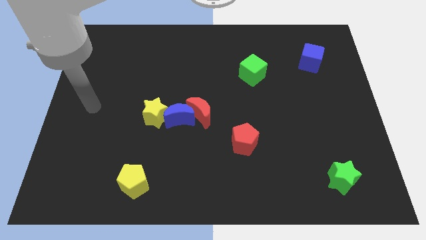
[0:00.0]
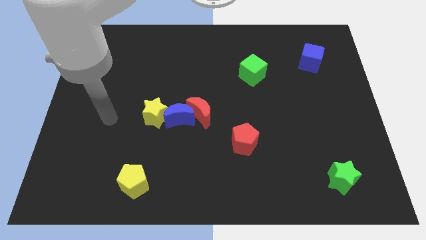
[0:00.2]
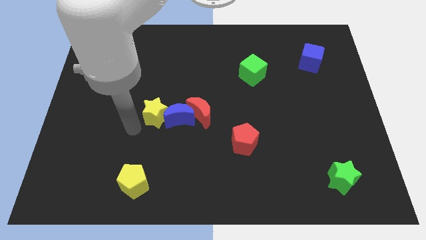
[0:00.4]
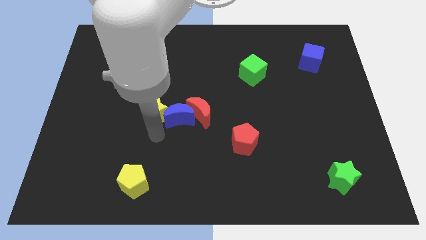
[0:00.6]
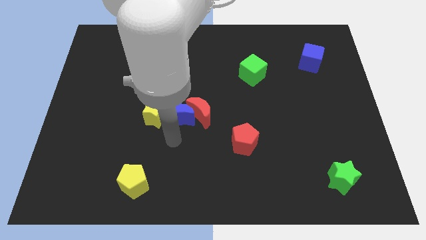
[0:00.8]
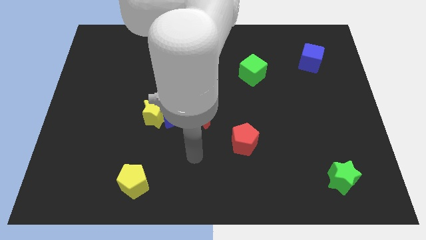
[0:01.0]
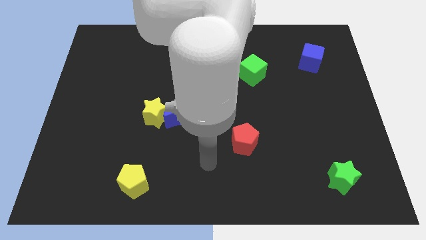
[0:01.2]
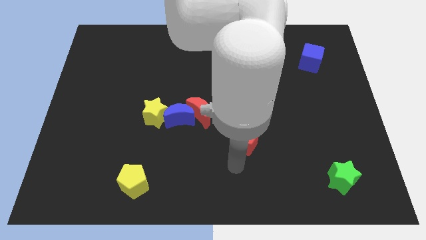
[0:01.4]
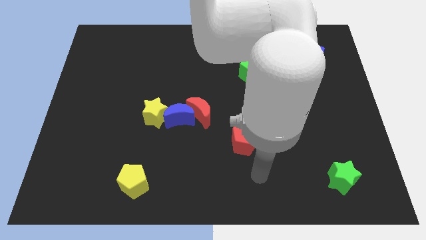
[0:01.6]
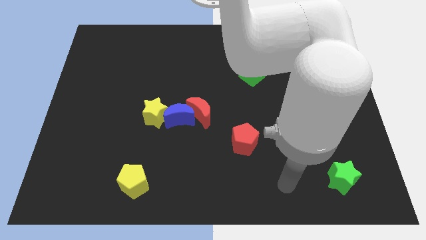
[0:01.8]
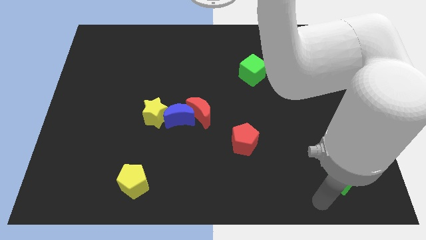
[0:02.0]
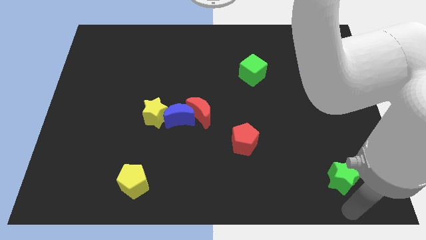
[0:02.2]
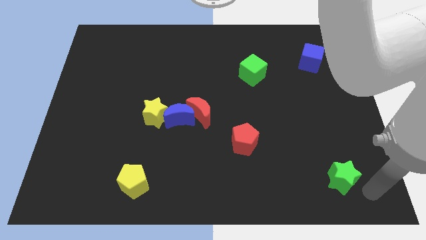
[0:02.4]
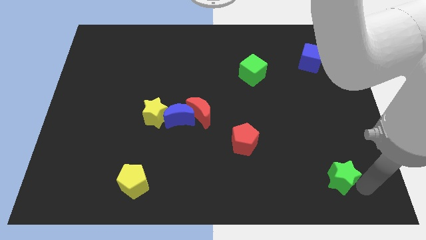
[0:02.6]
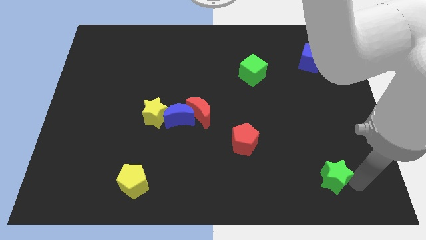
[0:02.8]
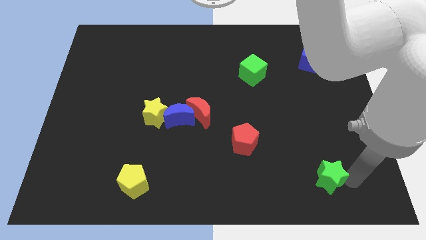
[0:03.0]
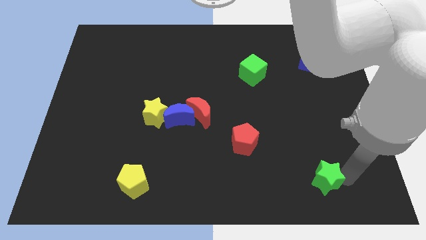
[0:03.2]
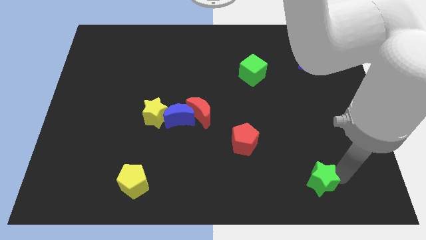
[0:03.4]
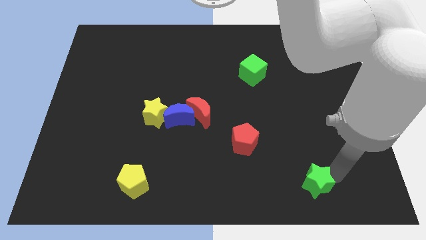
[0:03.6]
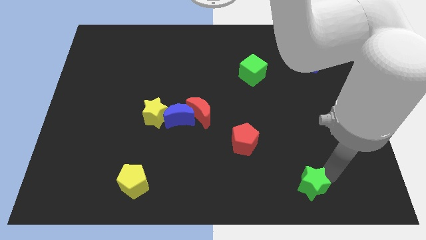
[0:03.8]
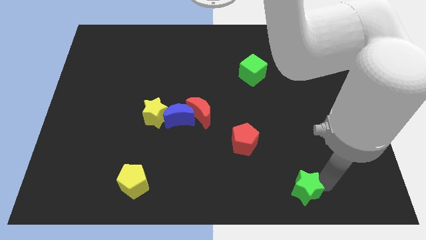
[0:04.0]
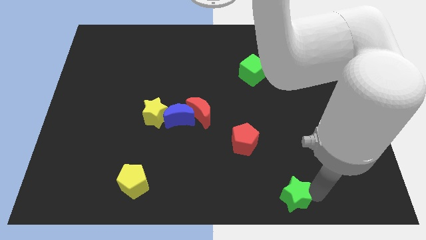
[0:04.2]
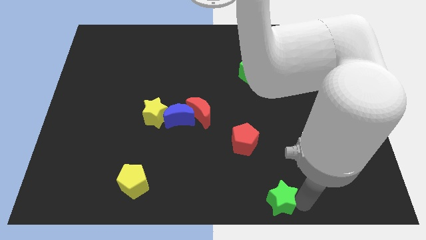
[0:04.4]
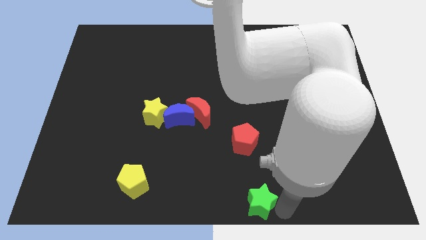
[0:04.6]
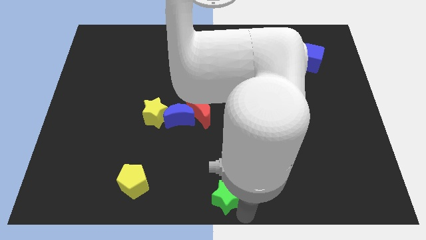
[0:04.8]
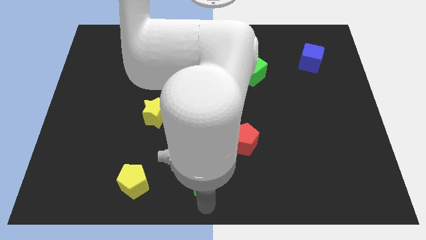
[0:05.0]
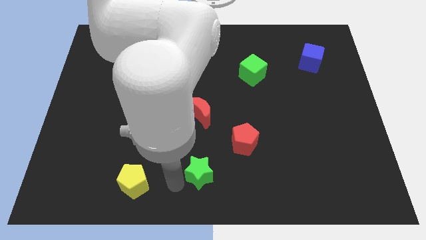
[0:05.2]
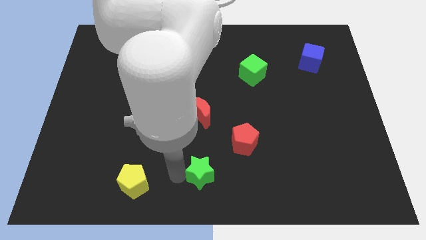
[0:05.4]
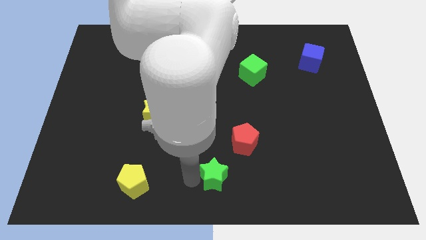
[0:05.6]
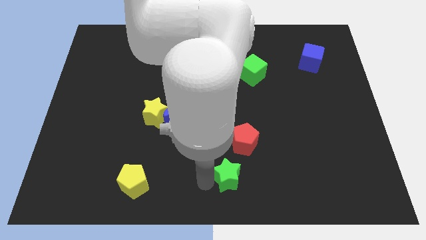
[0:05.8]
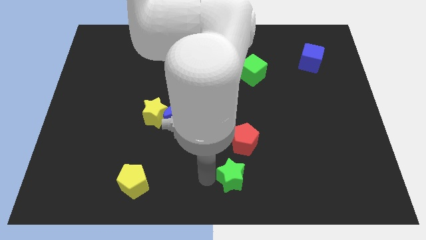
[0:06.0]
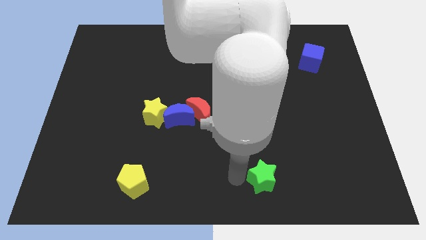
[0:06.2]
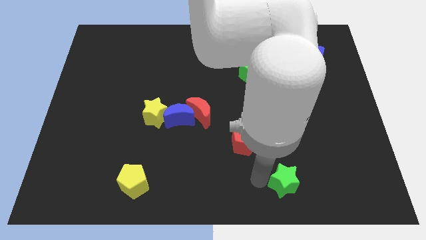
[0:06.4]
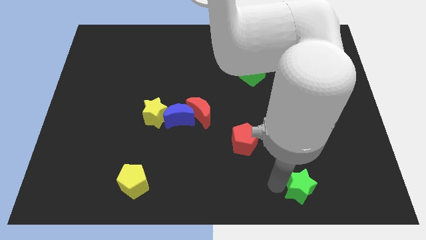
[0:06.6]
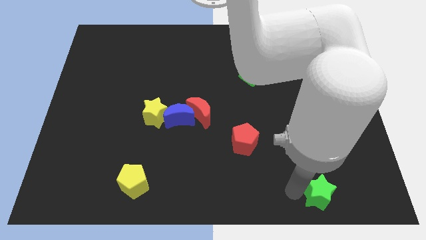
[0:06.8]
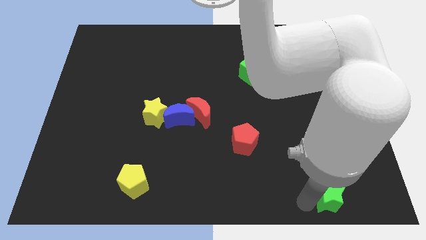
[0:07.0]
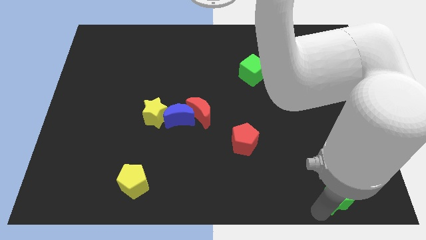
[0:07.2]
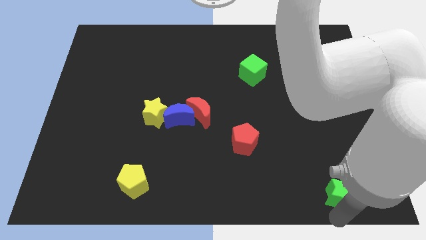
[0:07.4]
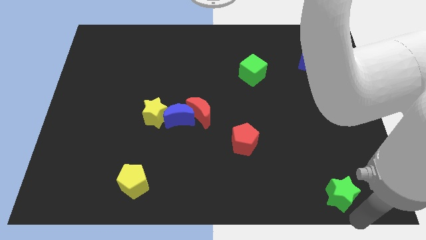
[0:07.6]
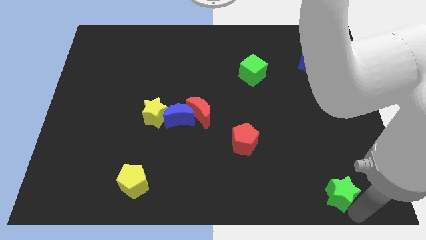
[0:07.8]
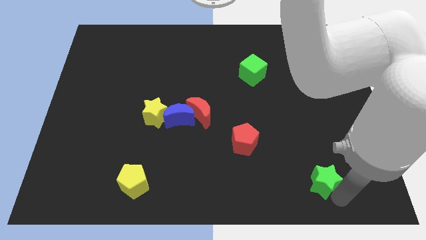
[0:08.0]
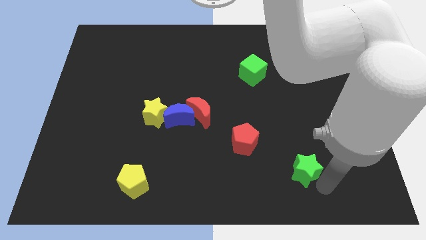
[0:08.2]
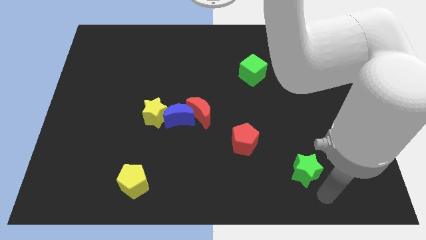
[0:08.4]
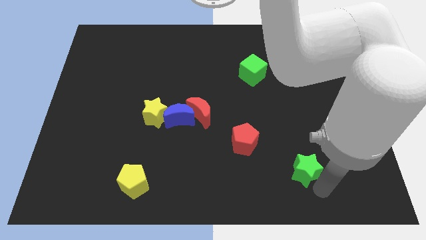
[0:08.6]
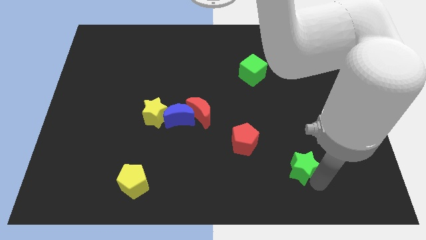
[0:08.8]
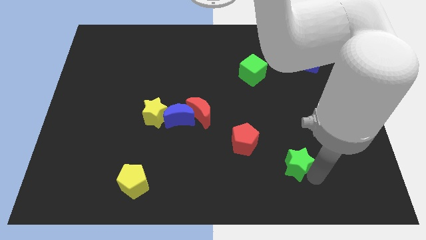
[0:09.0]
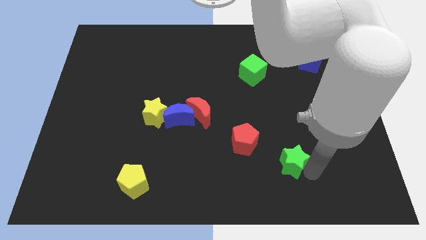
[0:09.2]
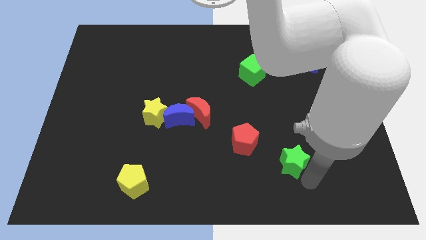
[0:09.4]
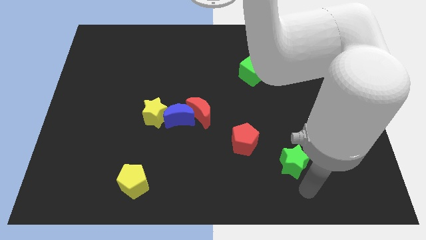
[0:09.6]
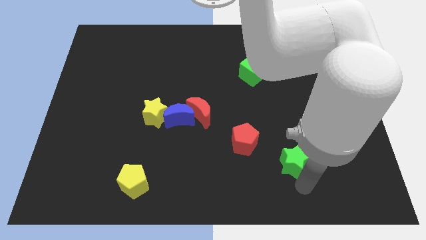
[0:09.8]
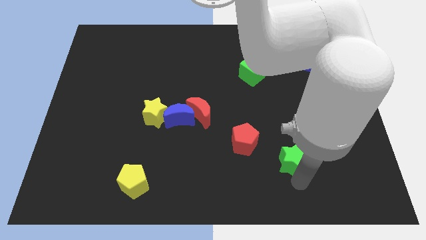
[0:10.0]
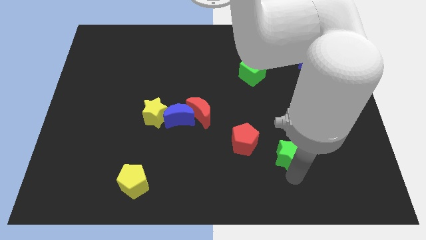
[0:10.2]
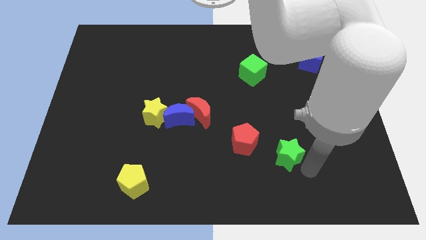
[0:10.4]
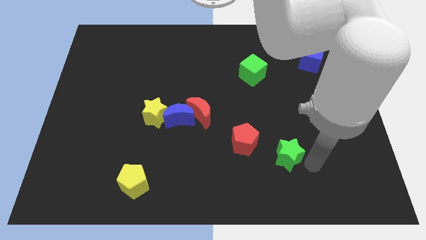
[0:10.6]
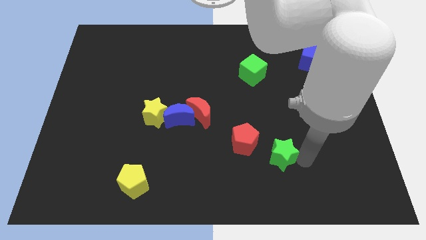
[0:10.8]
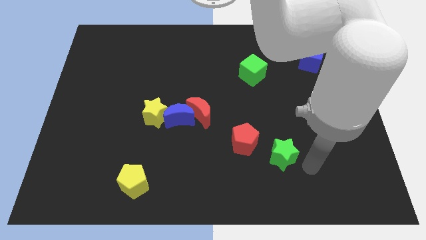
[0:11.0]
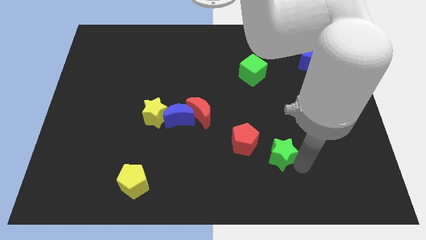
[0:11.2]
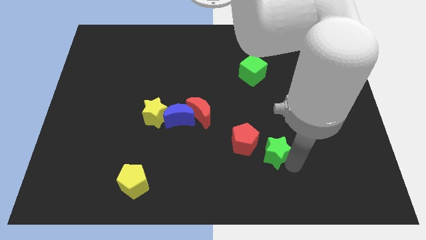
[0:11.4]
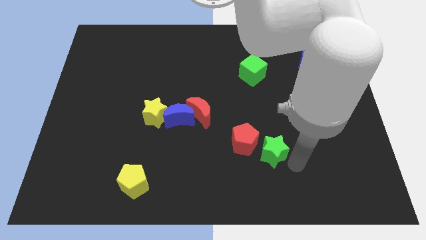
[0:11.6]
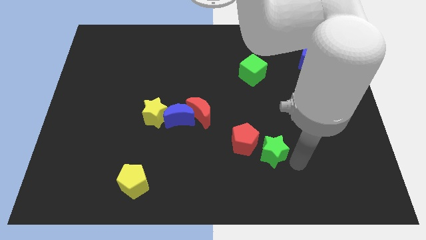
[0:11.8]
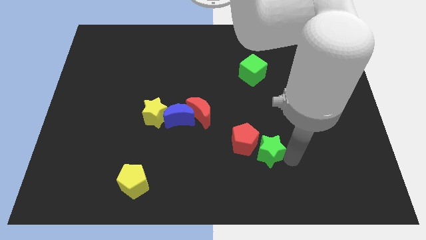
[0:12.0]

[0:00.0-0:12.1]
push the green star to the red pentagon

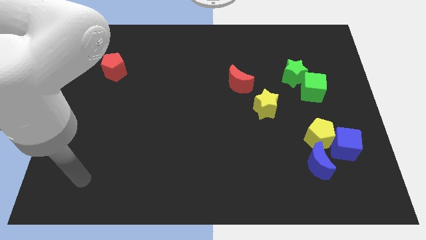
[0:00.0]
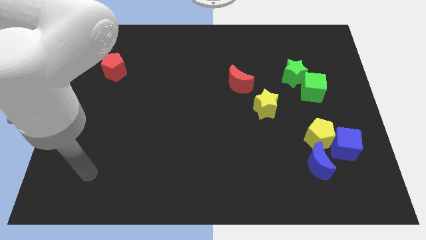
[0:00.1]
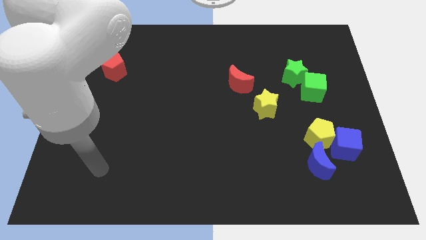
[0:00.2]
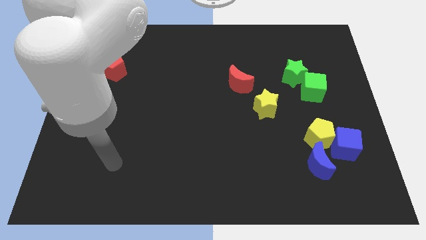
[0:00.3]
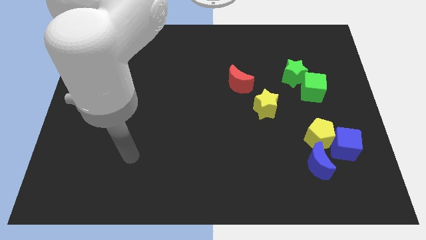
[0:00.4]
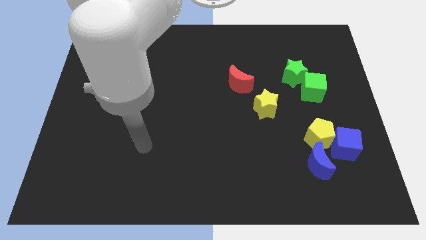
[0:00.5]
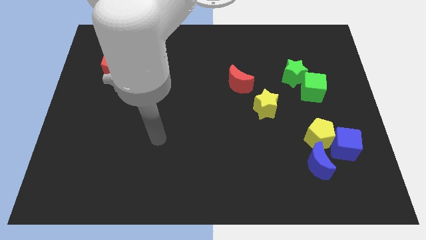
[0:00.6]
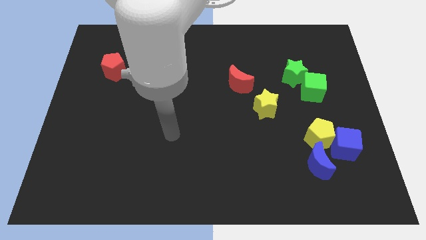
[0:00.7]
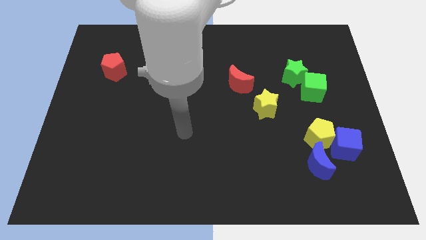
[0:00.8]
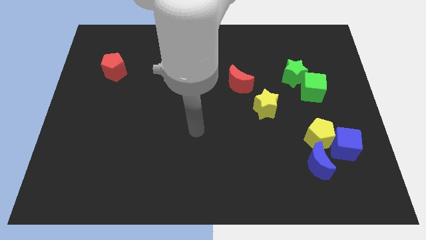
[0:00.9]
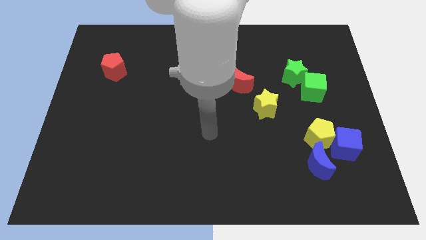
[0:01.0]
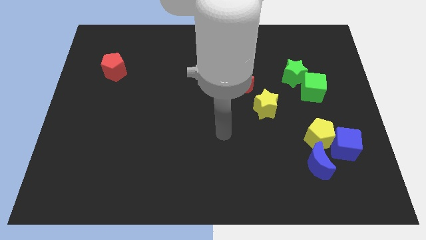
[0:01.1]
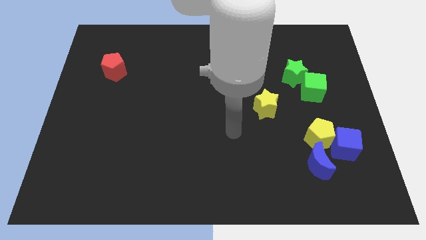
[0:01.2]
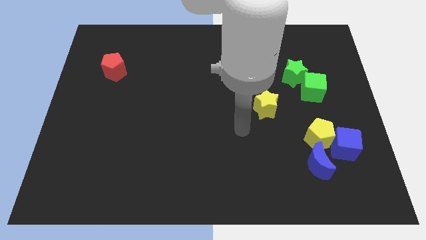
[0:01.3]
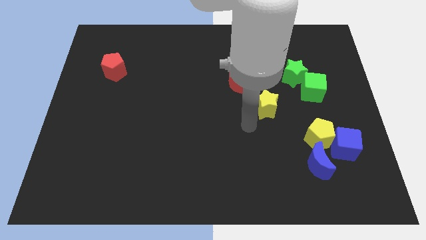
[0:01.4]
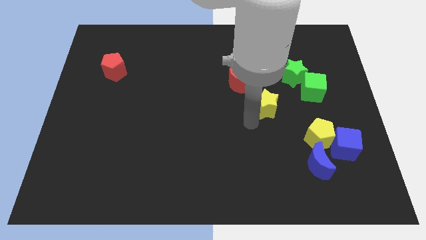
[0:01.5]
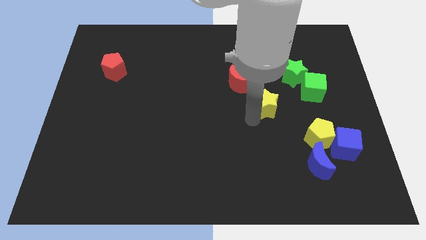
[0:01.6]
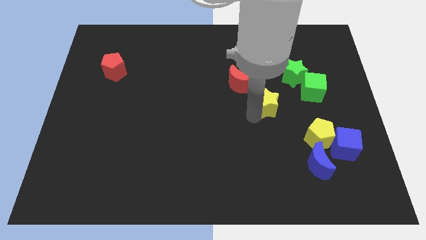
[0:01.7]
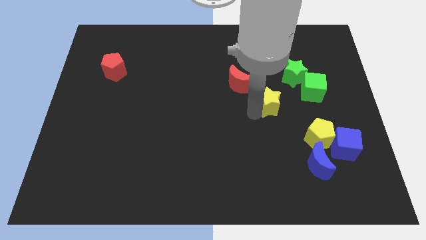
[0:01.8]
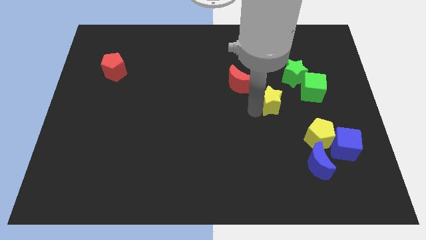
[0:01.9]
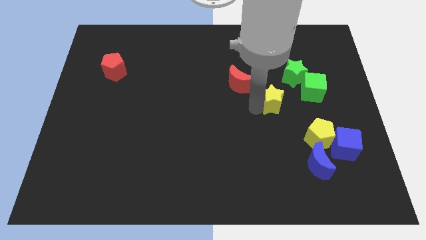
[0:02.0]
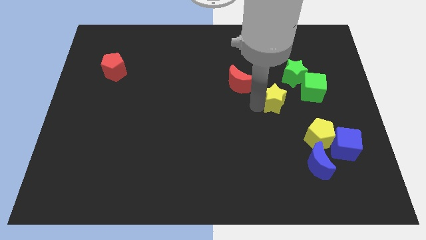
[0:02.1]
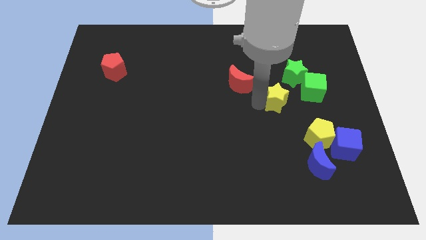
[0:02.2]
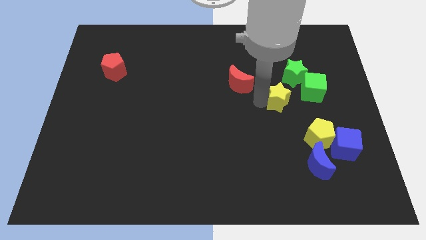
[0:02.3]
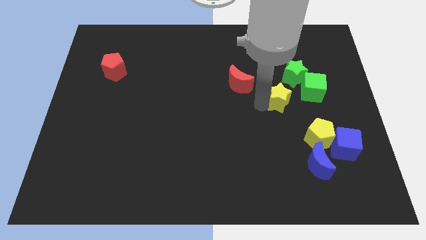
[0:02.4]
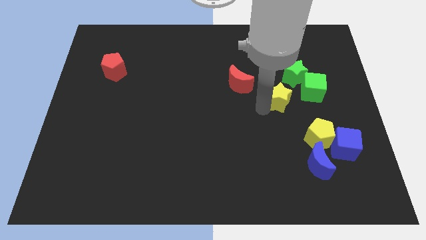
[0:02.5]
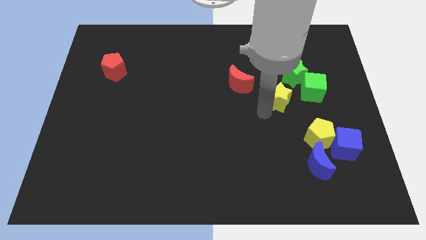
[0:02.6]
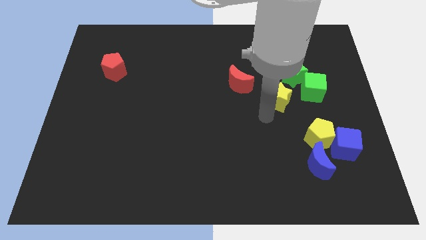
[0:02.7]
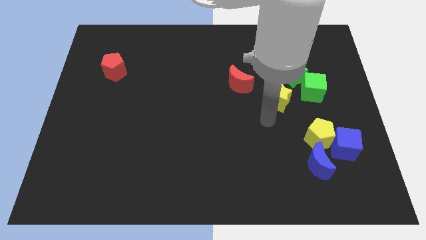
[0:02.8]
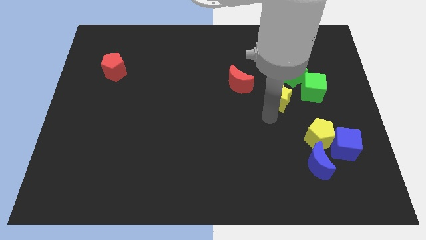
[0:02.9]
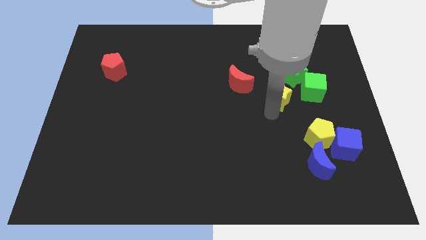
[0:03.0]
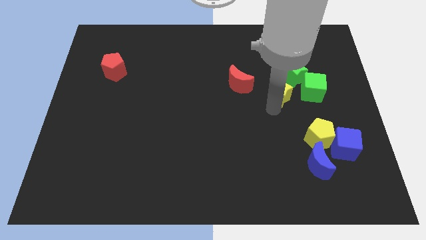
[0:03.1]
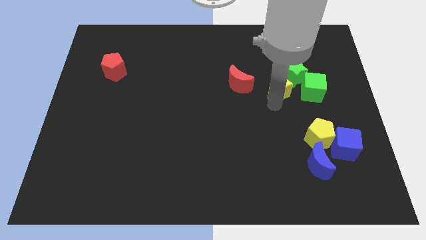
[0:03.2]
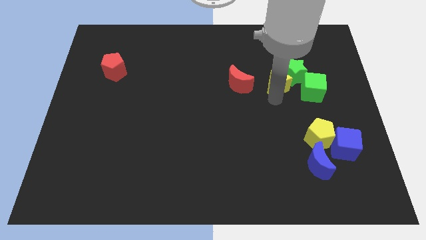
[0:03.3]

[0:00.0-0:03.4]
push the yellow star close to the green star
